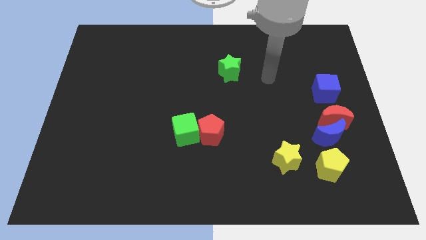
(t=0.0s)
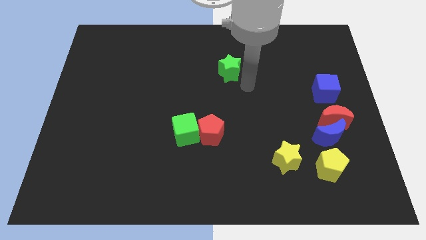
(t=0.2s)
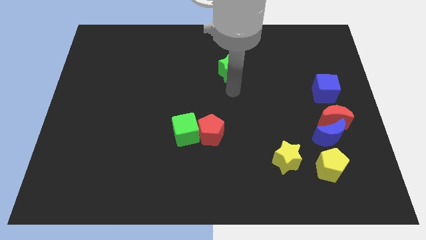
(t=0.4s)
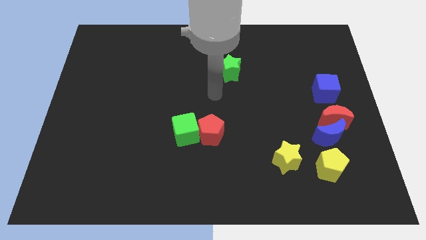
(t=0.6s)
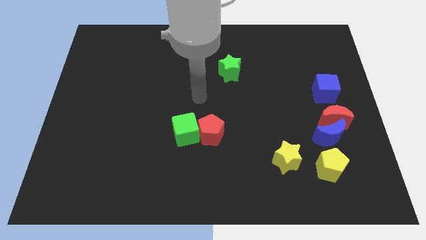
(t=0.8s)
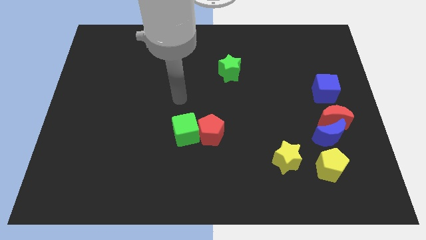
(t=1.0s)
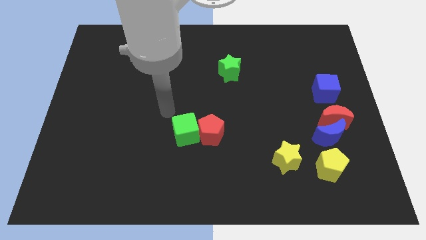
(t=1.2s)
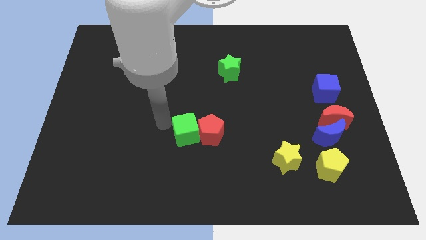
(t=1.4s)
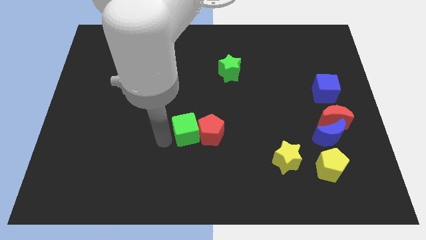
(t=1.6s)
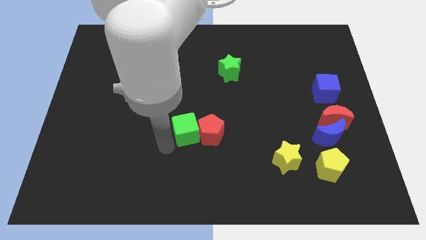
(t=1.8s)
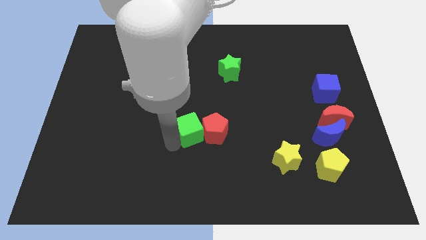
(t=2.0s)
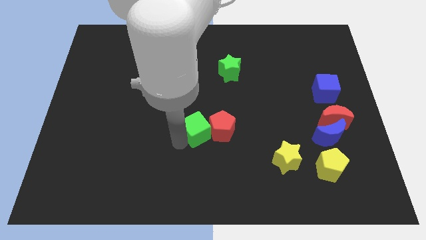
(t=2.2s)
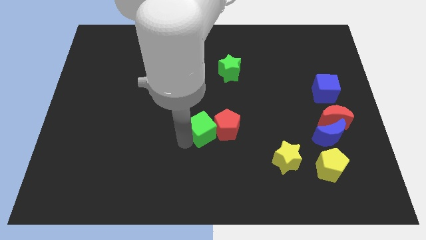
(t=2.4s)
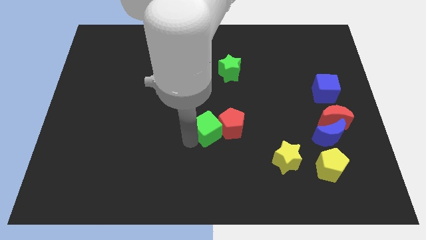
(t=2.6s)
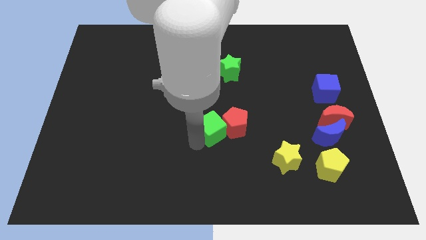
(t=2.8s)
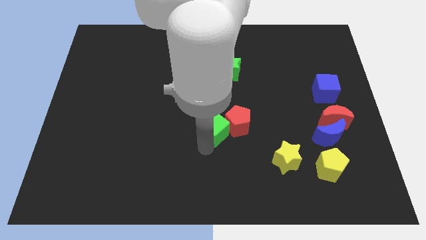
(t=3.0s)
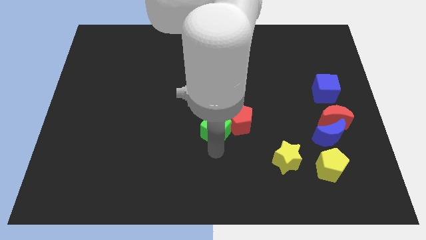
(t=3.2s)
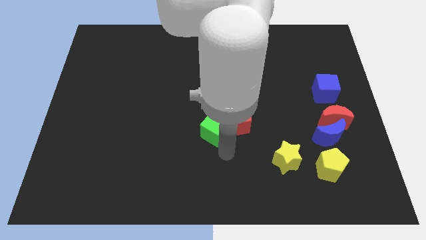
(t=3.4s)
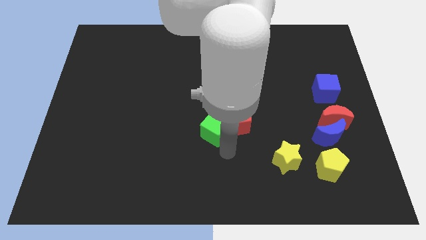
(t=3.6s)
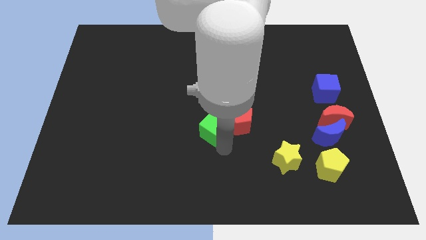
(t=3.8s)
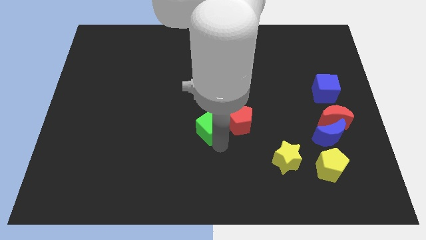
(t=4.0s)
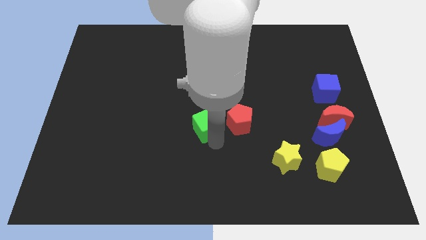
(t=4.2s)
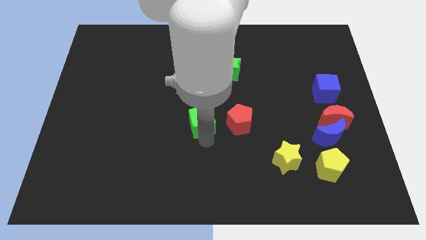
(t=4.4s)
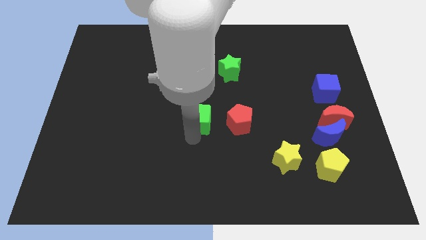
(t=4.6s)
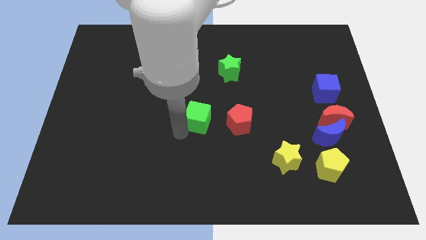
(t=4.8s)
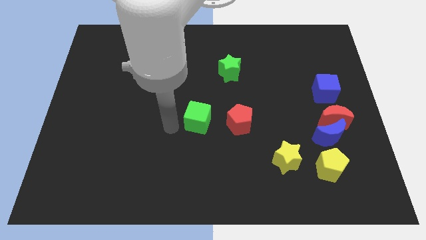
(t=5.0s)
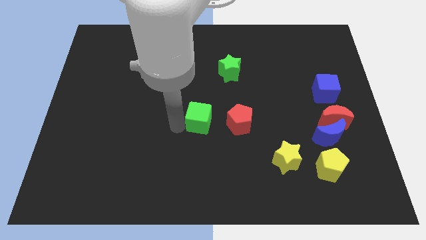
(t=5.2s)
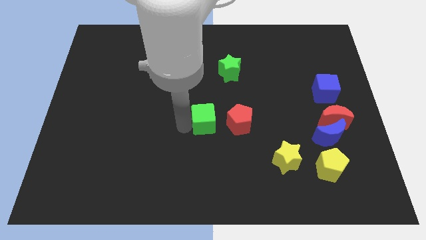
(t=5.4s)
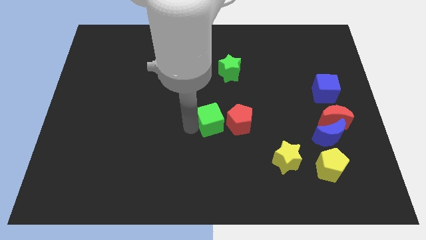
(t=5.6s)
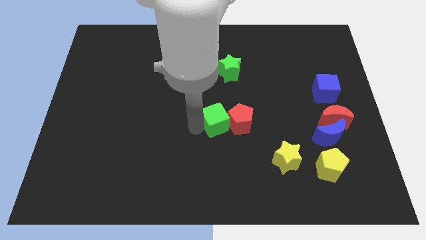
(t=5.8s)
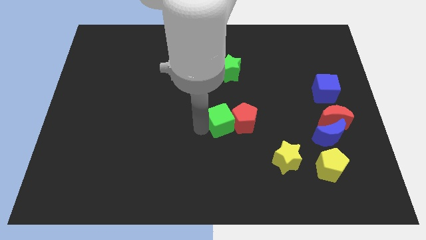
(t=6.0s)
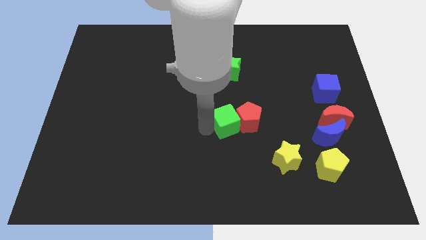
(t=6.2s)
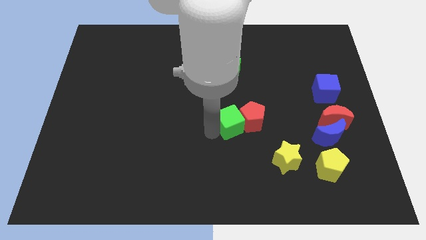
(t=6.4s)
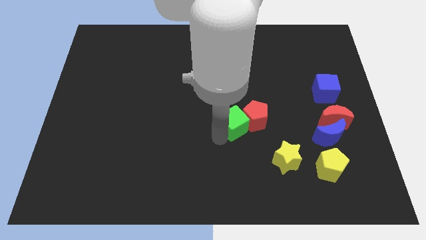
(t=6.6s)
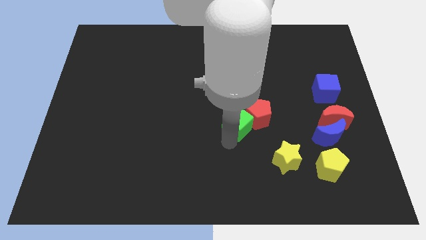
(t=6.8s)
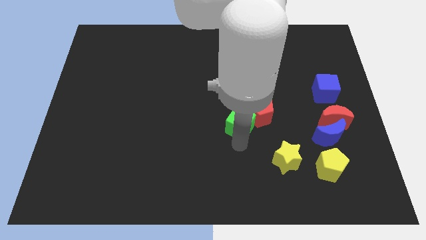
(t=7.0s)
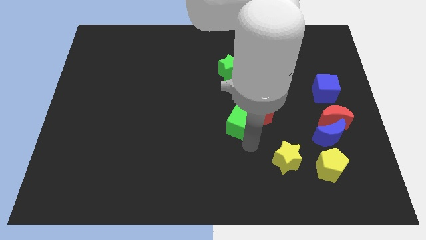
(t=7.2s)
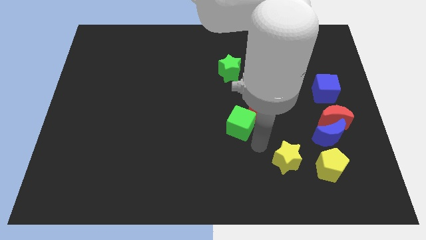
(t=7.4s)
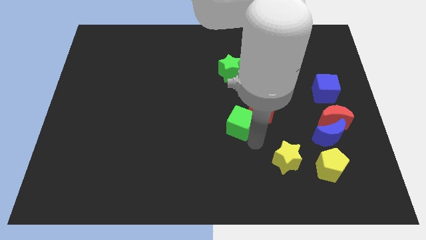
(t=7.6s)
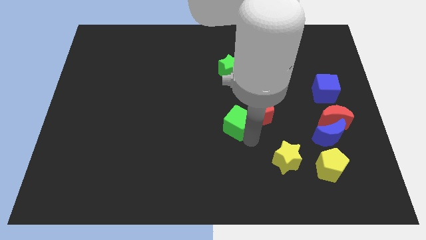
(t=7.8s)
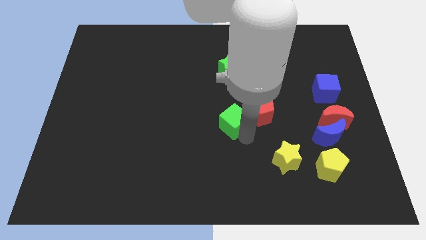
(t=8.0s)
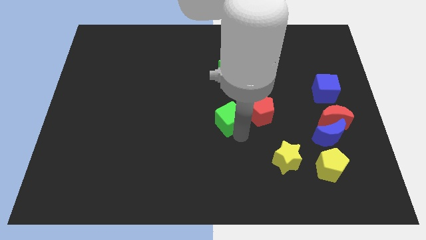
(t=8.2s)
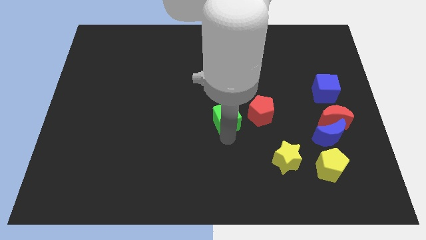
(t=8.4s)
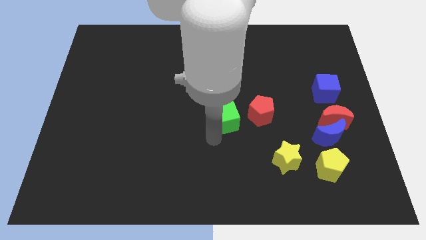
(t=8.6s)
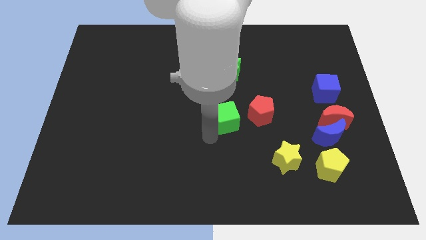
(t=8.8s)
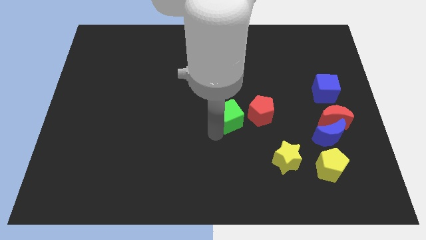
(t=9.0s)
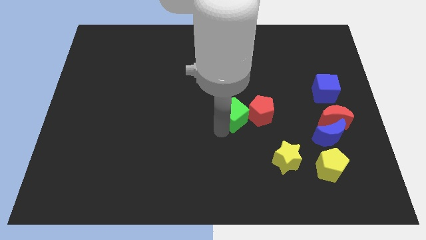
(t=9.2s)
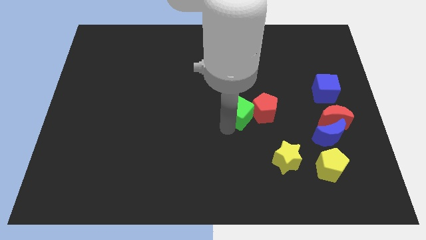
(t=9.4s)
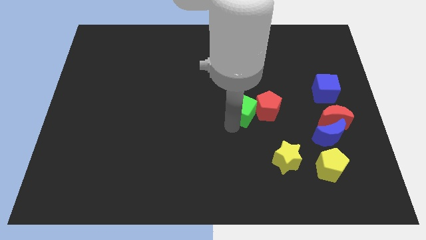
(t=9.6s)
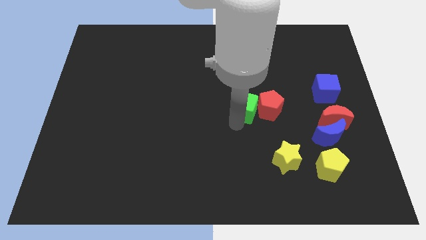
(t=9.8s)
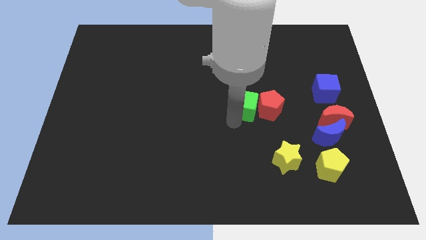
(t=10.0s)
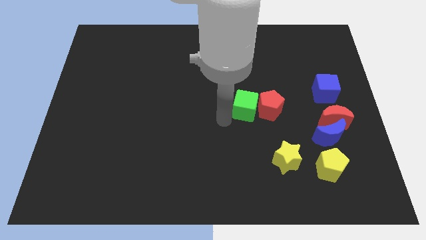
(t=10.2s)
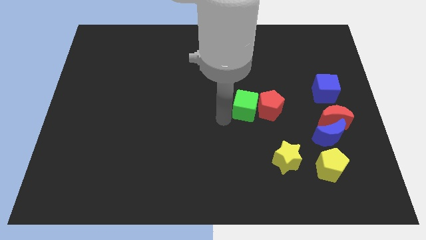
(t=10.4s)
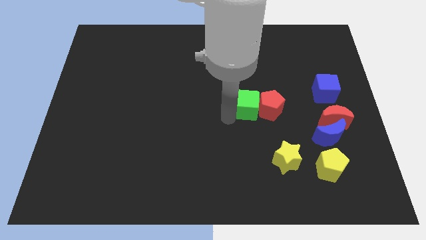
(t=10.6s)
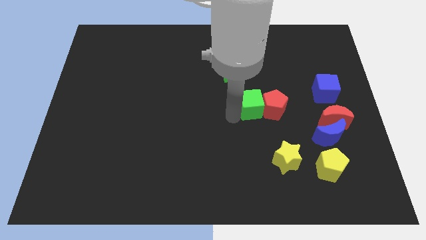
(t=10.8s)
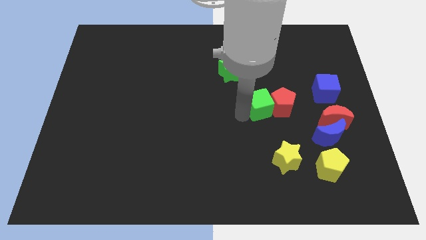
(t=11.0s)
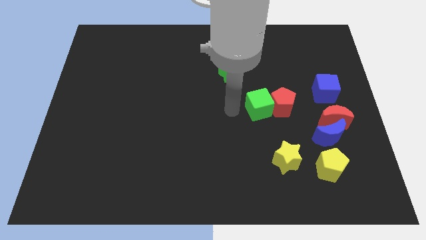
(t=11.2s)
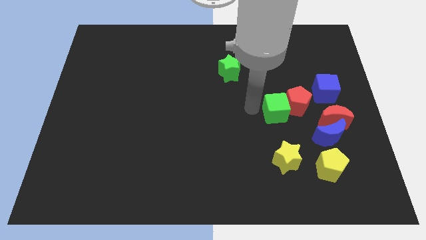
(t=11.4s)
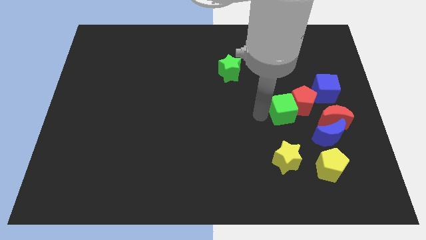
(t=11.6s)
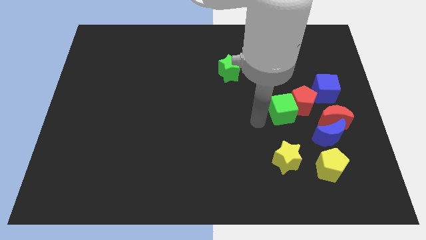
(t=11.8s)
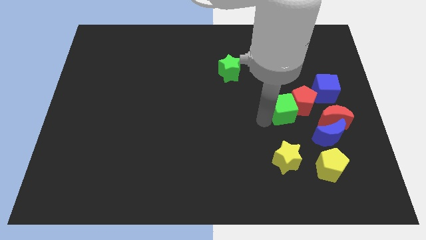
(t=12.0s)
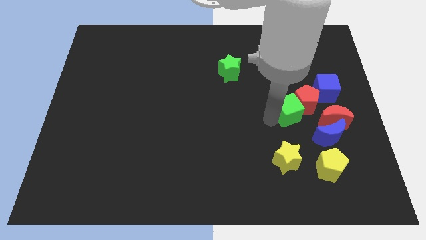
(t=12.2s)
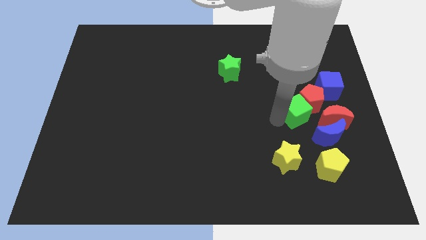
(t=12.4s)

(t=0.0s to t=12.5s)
slide the green cube to the top left side of the red moon

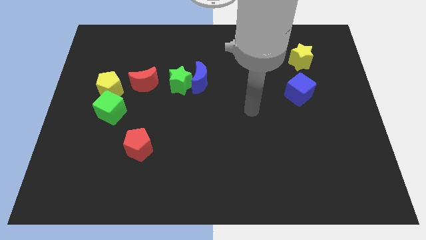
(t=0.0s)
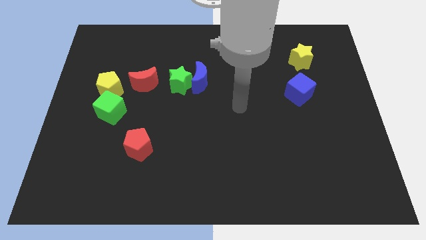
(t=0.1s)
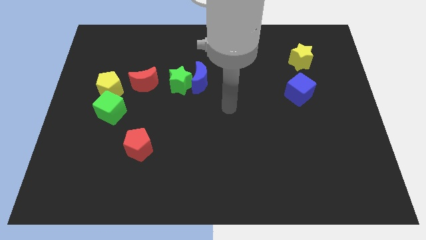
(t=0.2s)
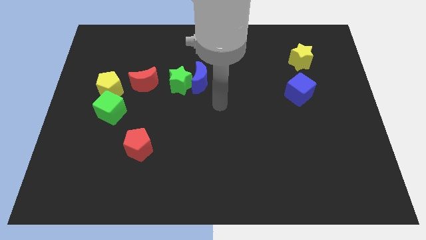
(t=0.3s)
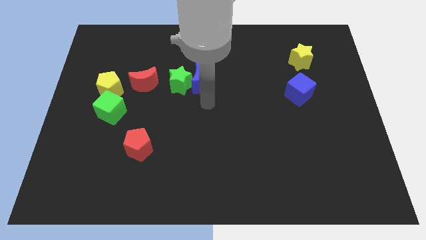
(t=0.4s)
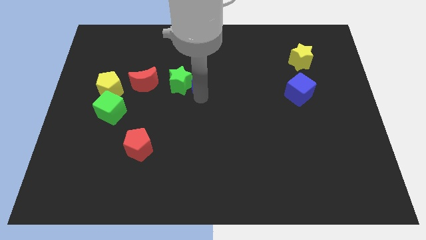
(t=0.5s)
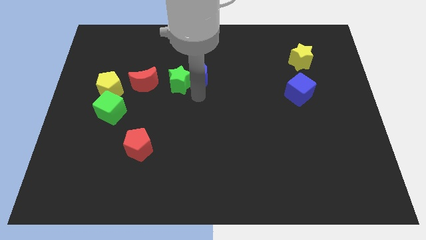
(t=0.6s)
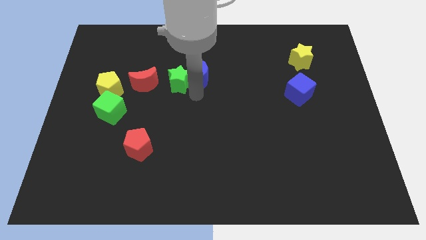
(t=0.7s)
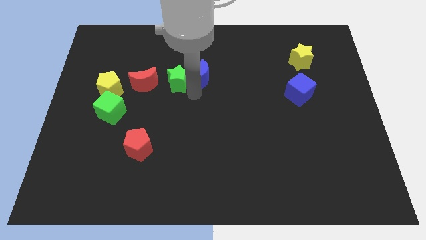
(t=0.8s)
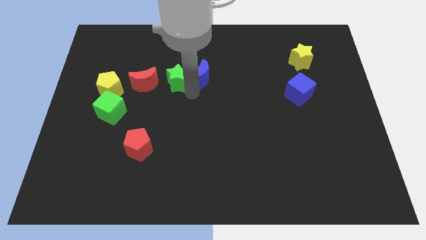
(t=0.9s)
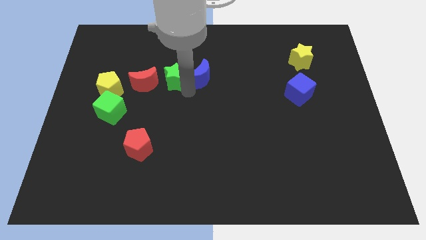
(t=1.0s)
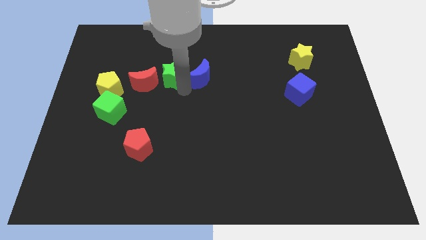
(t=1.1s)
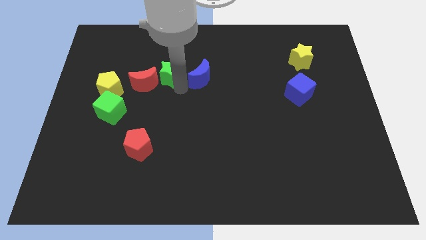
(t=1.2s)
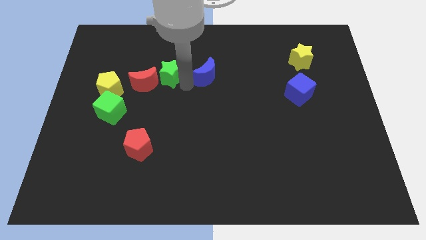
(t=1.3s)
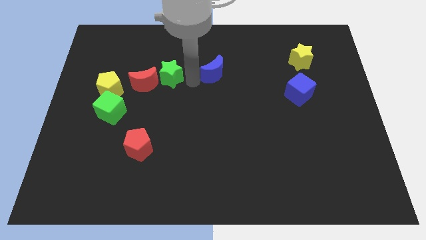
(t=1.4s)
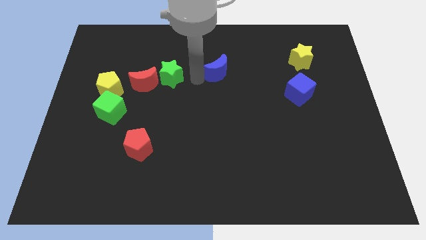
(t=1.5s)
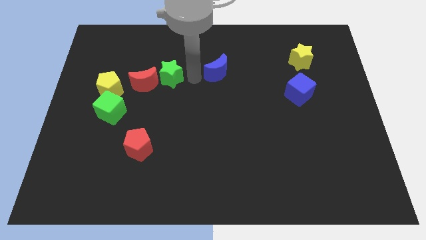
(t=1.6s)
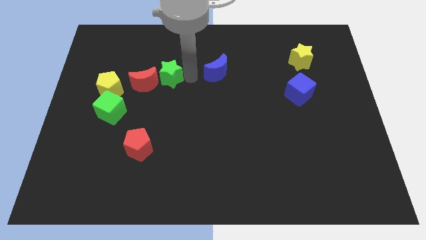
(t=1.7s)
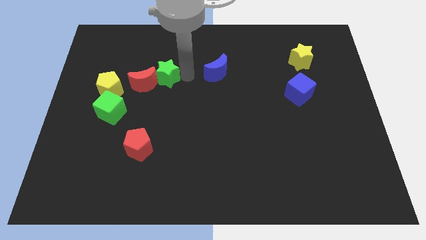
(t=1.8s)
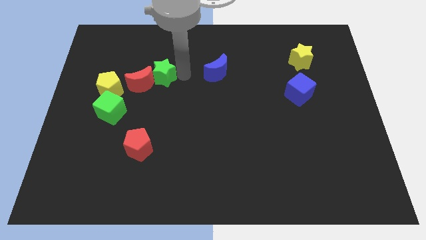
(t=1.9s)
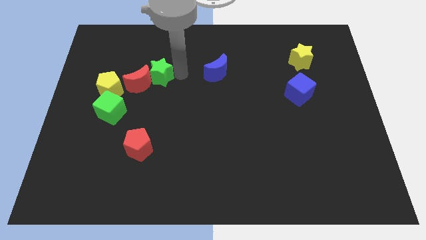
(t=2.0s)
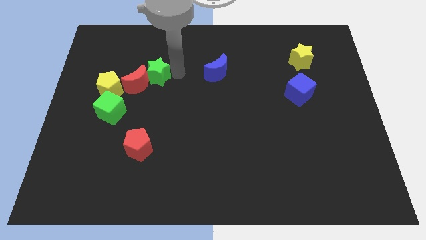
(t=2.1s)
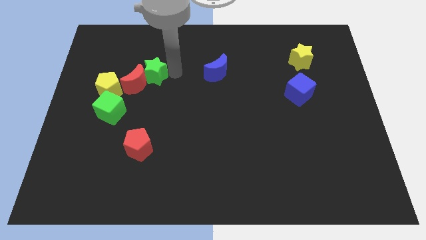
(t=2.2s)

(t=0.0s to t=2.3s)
slide the green star to the top right side of the yellow pentagon
